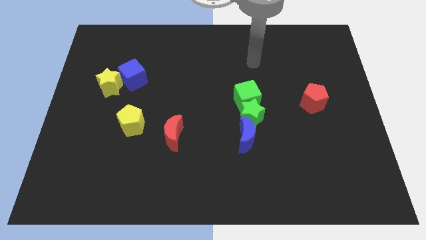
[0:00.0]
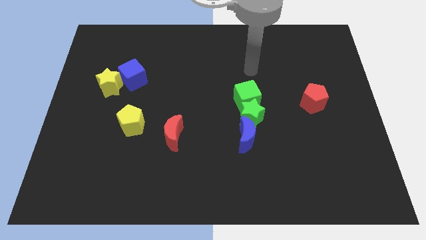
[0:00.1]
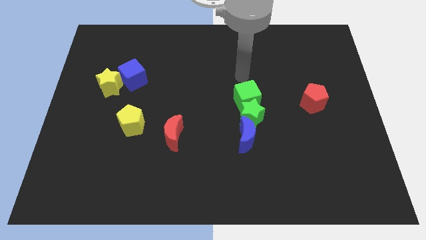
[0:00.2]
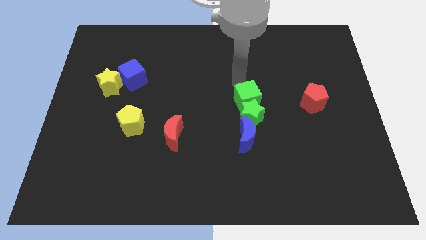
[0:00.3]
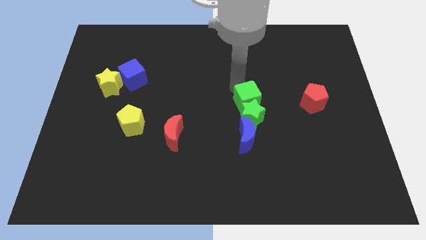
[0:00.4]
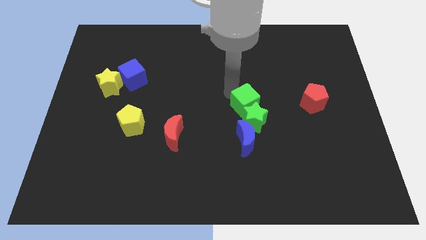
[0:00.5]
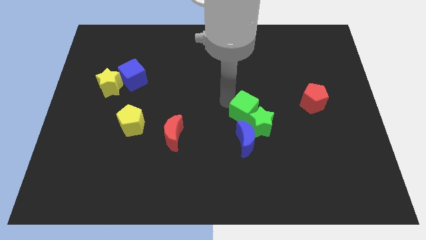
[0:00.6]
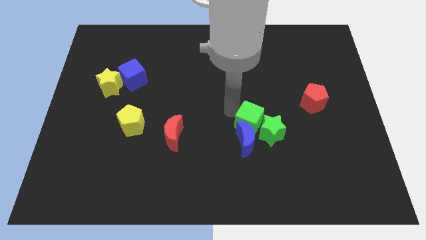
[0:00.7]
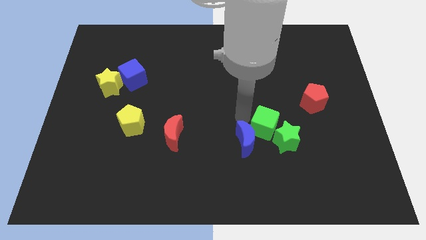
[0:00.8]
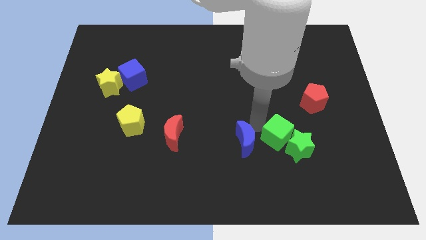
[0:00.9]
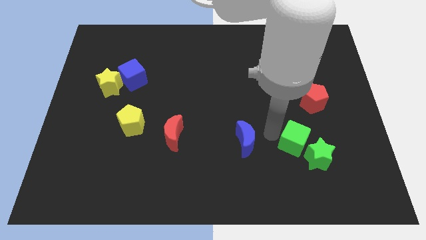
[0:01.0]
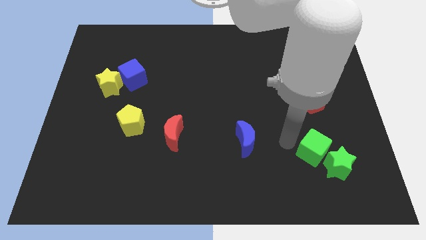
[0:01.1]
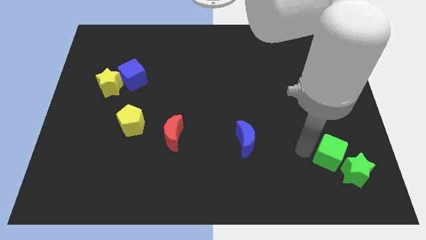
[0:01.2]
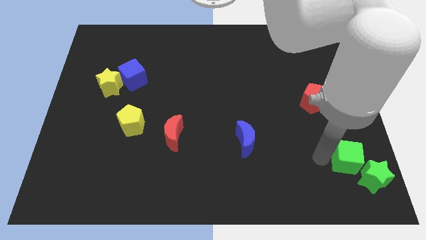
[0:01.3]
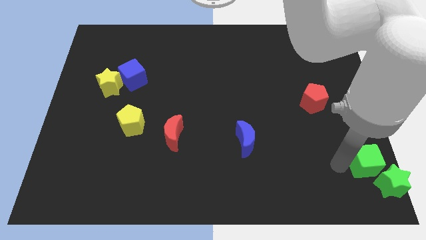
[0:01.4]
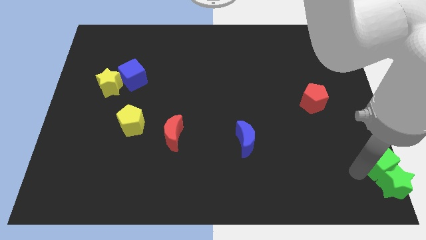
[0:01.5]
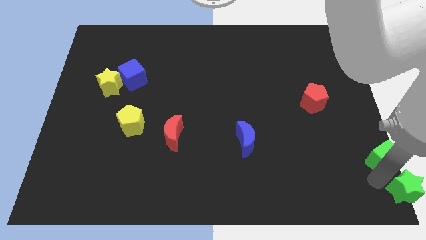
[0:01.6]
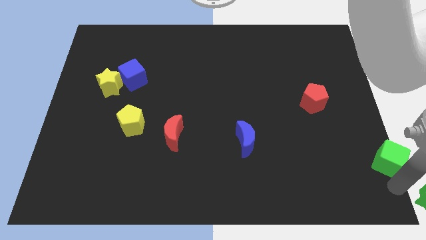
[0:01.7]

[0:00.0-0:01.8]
separate the green cube from the green star

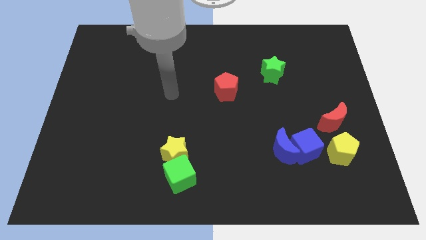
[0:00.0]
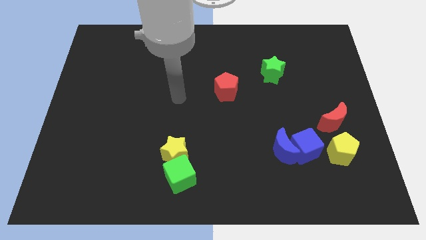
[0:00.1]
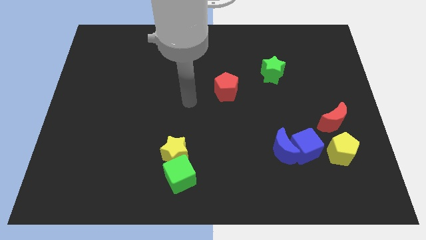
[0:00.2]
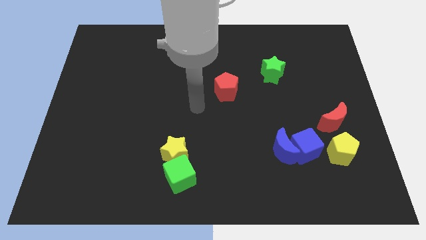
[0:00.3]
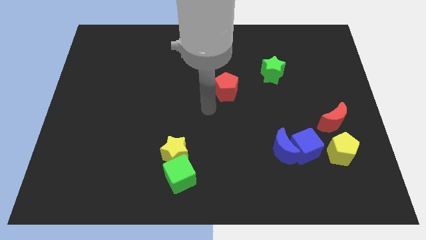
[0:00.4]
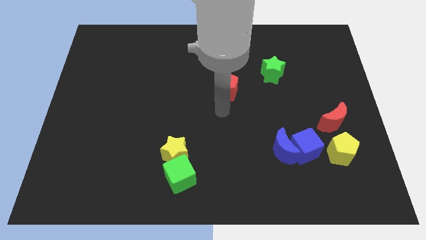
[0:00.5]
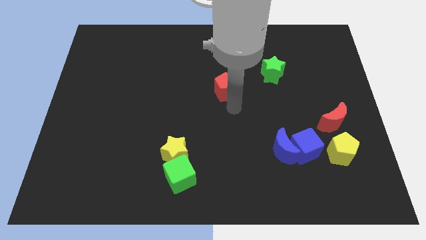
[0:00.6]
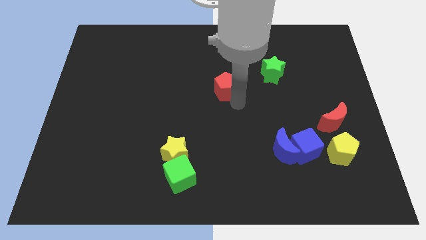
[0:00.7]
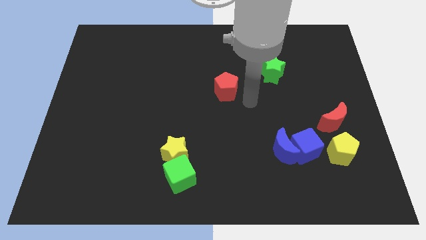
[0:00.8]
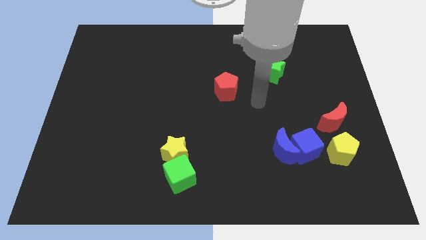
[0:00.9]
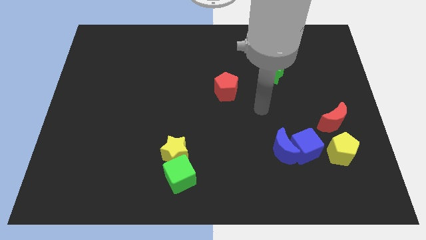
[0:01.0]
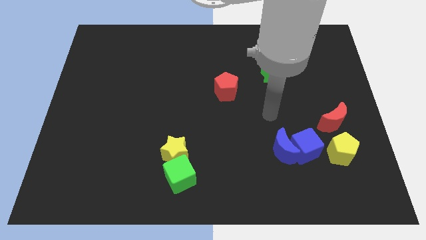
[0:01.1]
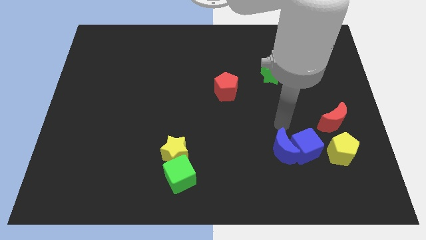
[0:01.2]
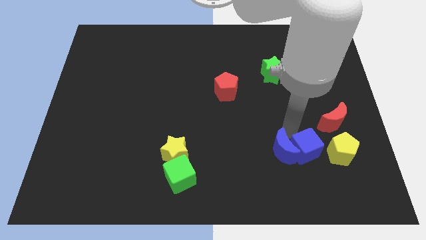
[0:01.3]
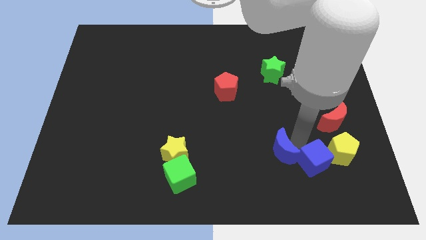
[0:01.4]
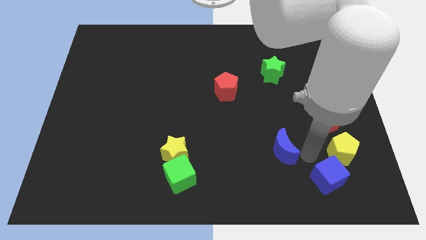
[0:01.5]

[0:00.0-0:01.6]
separate the blue moon from the blue cube

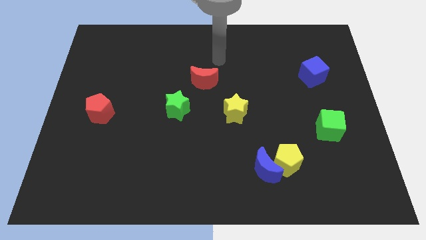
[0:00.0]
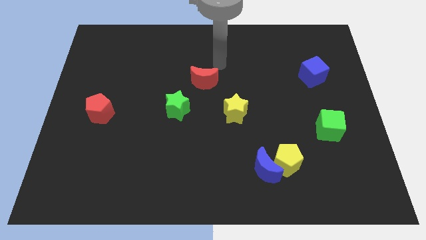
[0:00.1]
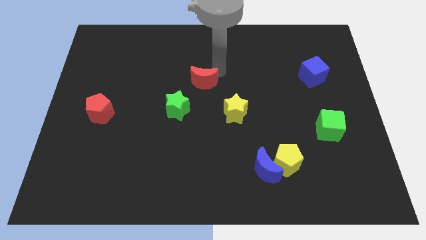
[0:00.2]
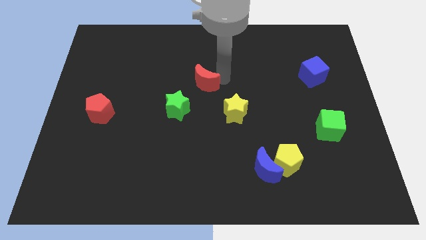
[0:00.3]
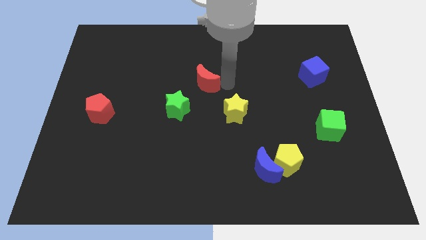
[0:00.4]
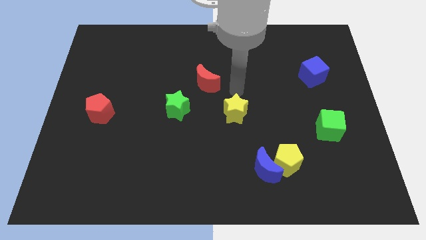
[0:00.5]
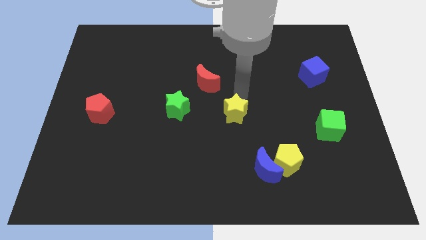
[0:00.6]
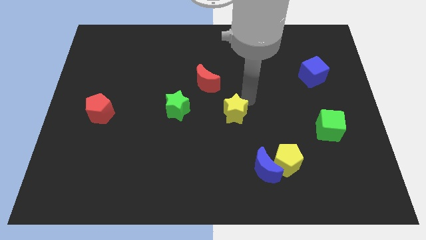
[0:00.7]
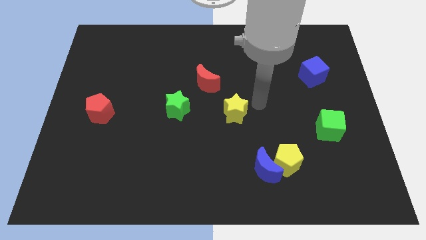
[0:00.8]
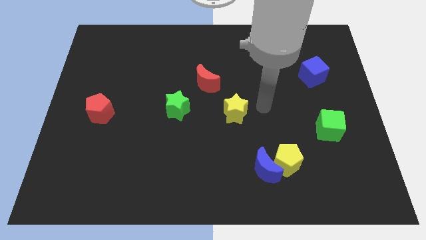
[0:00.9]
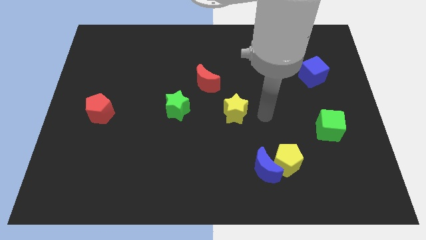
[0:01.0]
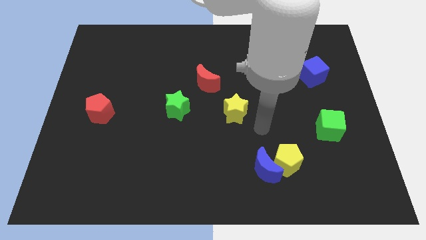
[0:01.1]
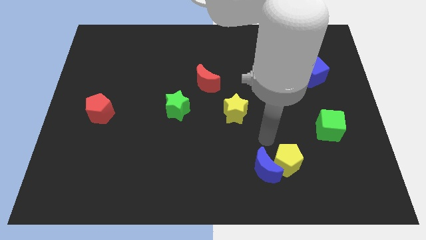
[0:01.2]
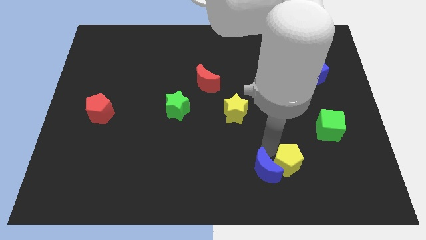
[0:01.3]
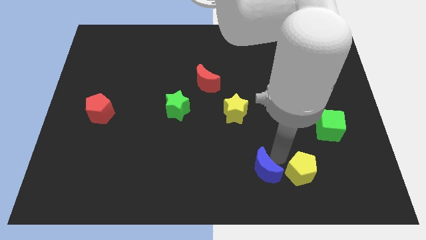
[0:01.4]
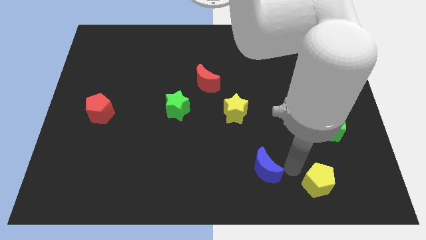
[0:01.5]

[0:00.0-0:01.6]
separate the blue moon from the yellow pentagon

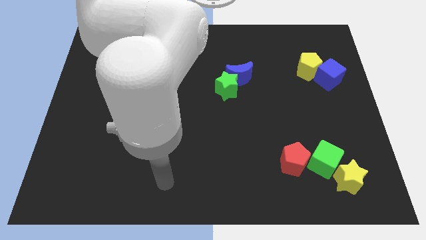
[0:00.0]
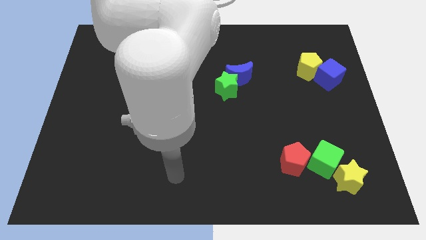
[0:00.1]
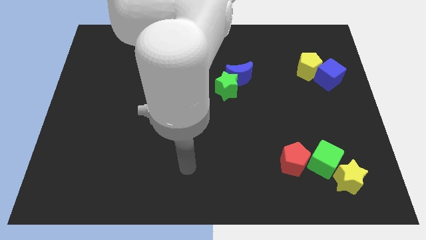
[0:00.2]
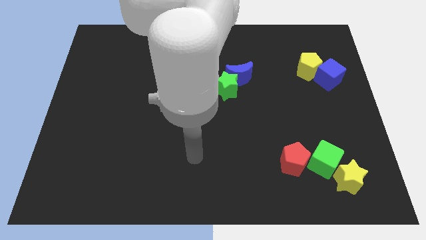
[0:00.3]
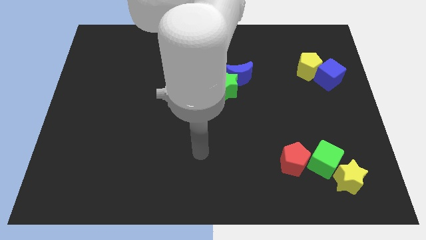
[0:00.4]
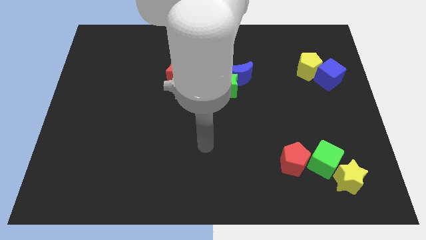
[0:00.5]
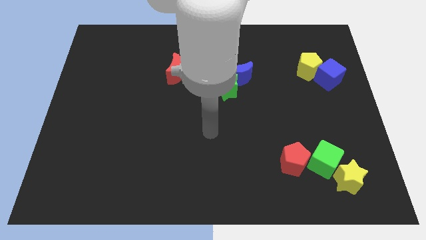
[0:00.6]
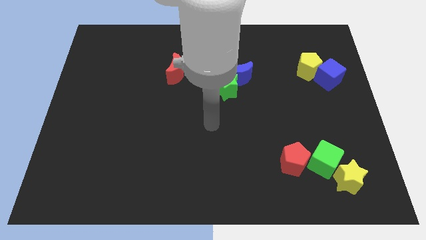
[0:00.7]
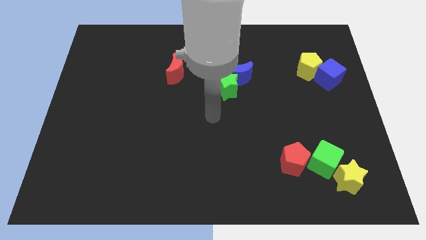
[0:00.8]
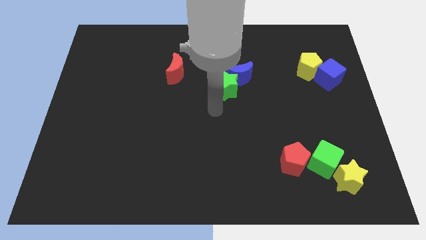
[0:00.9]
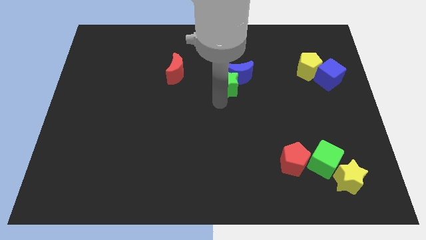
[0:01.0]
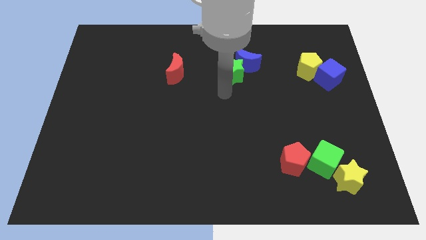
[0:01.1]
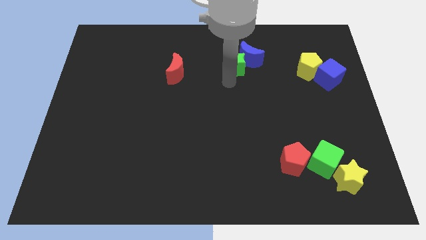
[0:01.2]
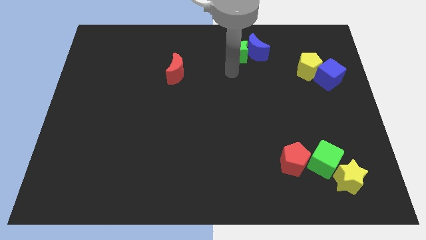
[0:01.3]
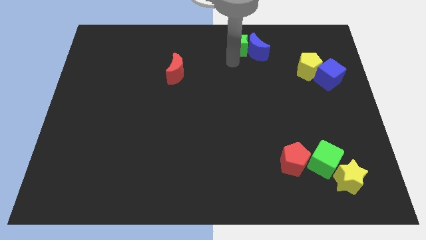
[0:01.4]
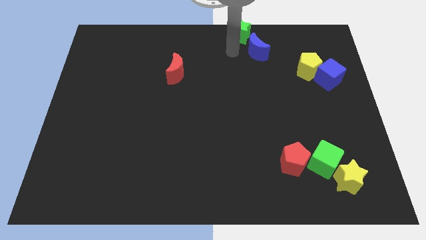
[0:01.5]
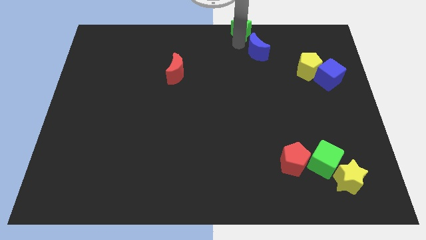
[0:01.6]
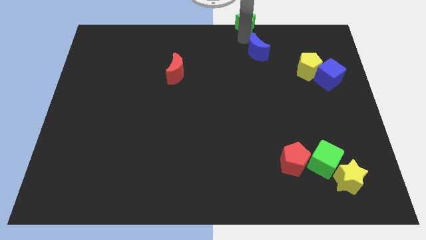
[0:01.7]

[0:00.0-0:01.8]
move the blue moon away from the green star

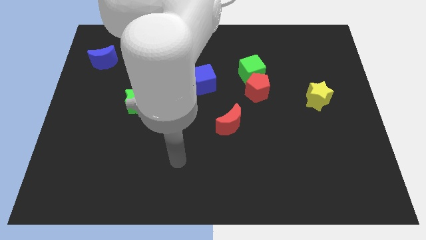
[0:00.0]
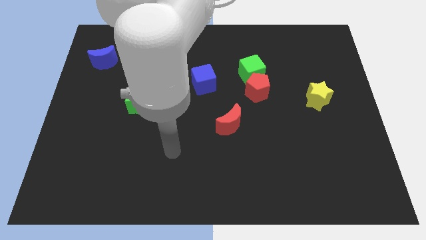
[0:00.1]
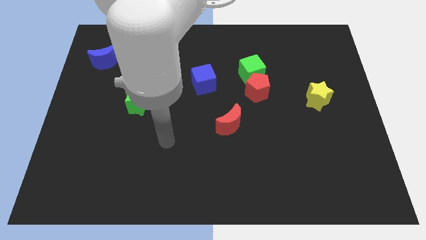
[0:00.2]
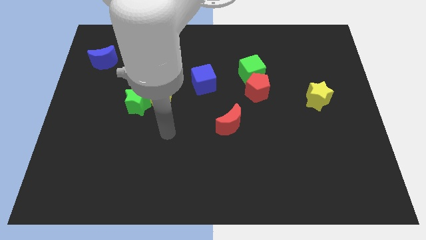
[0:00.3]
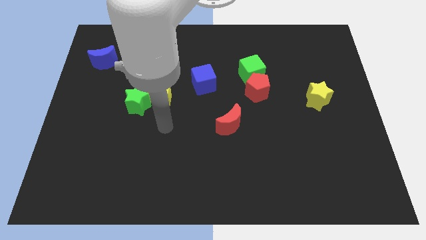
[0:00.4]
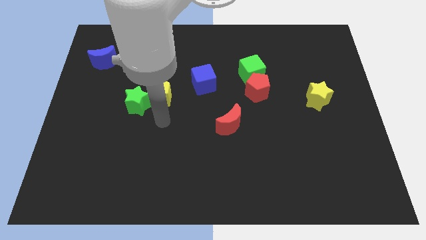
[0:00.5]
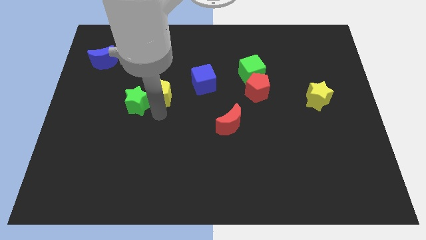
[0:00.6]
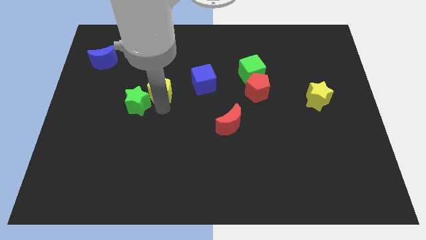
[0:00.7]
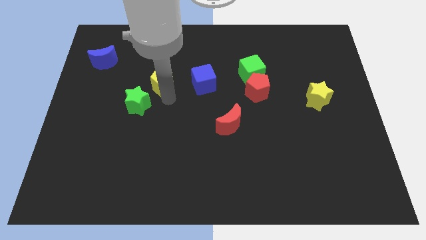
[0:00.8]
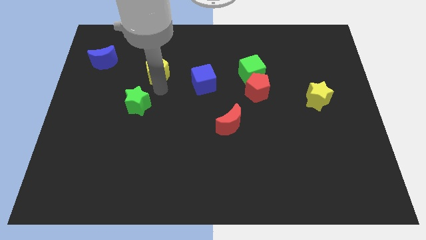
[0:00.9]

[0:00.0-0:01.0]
separate the green star from the yellow pentagon

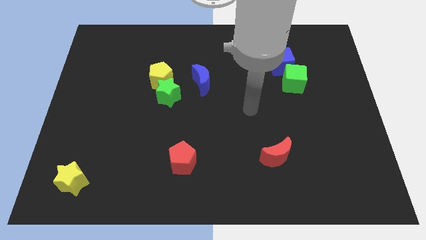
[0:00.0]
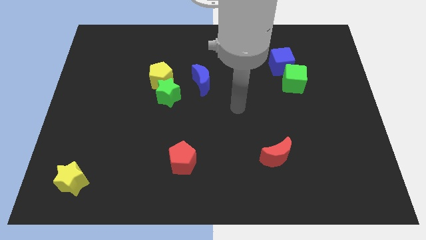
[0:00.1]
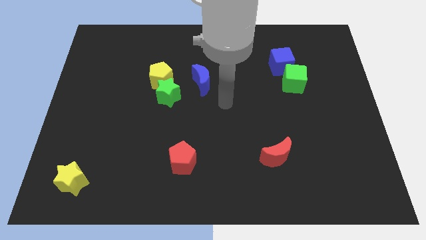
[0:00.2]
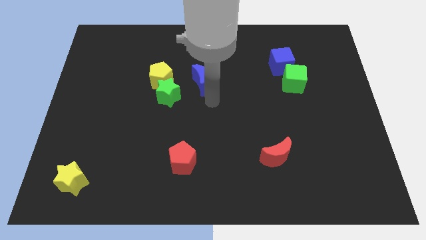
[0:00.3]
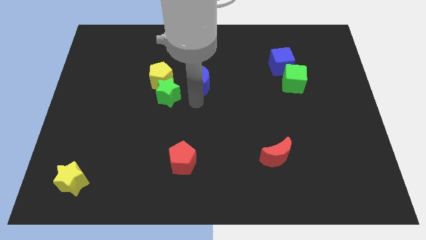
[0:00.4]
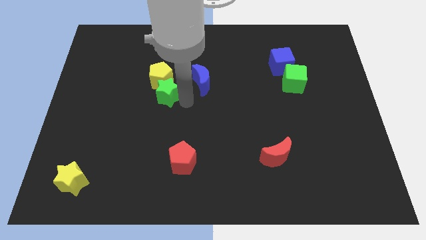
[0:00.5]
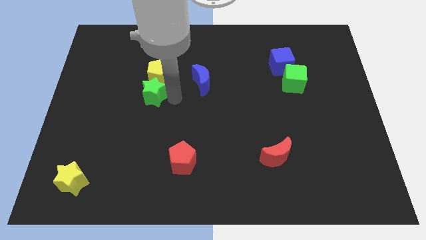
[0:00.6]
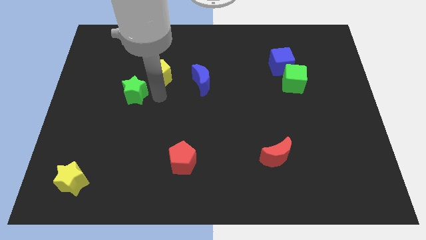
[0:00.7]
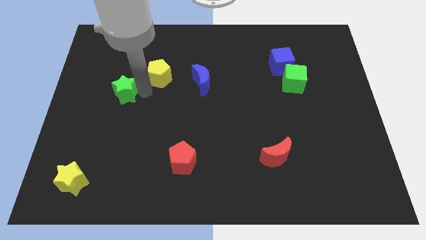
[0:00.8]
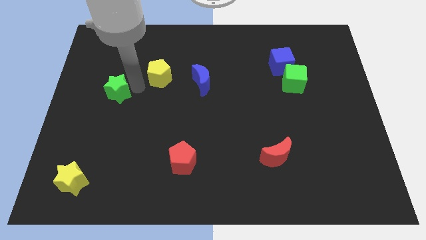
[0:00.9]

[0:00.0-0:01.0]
separate the yellow pentagon from the green star

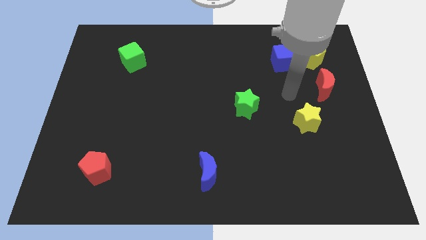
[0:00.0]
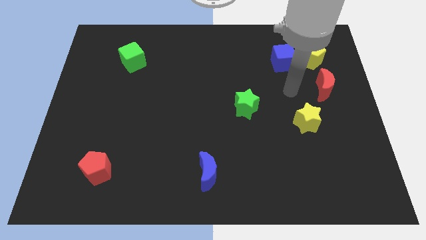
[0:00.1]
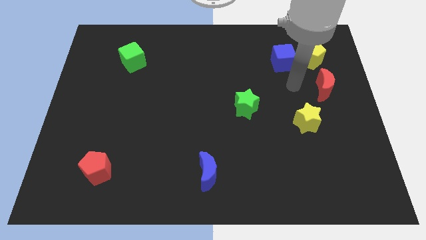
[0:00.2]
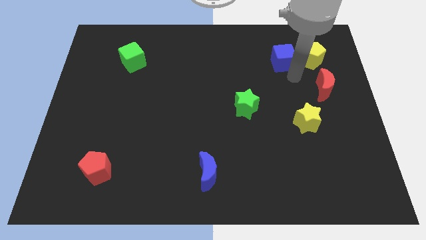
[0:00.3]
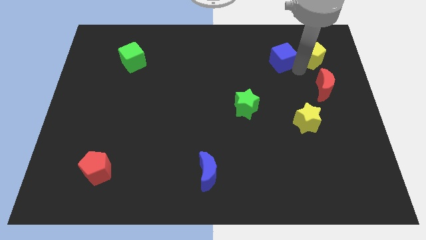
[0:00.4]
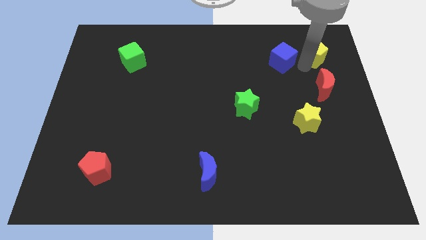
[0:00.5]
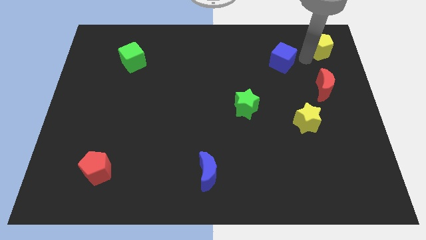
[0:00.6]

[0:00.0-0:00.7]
pull the blue cube apart from the yellow pentagon

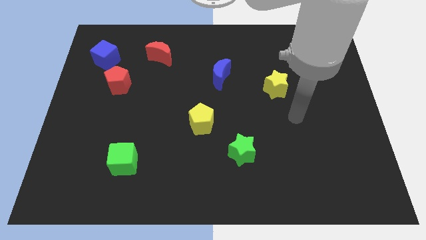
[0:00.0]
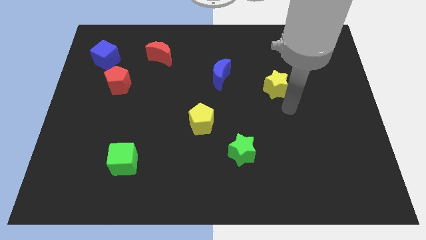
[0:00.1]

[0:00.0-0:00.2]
move the red pentagon away from the blue cube
